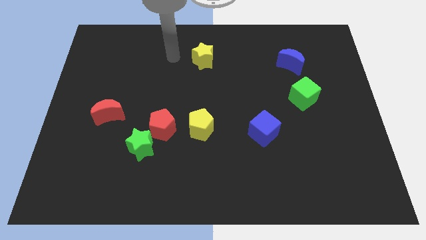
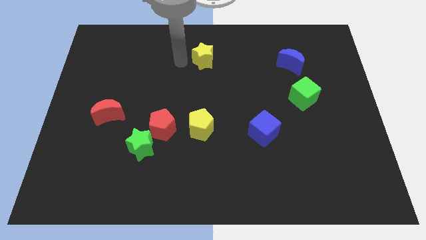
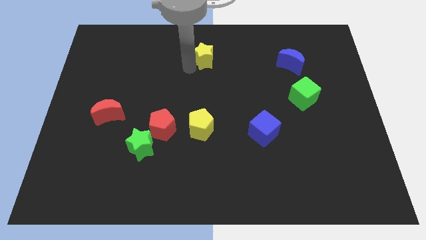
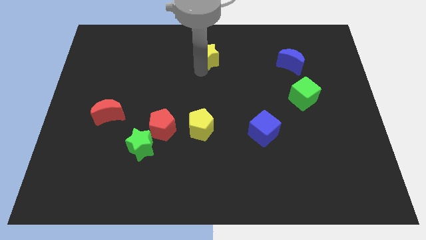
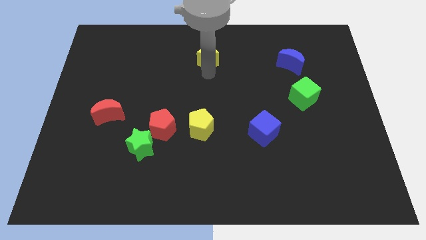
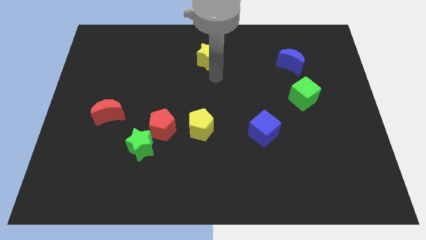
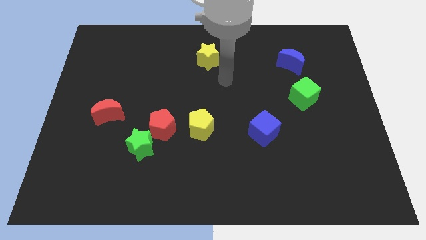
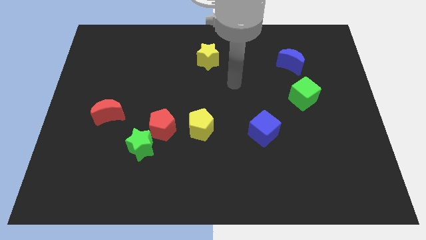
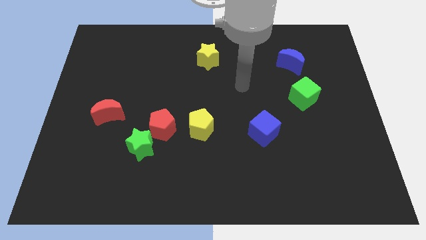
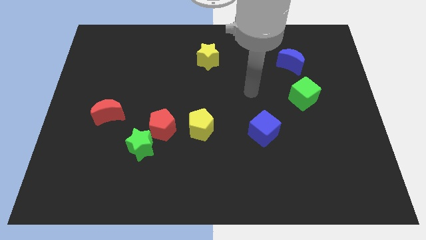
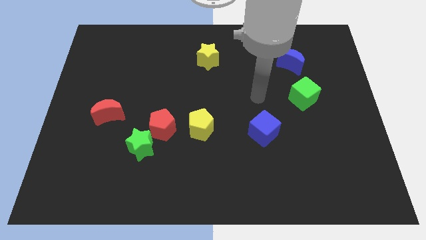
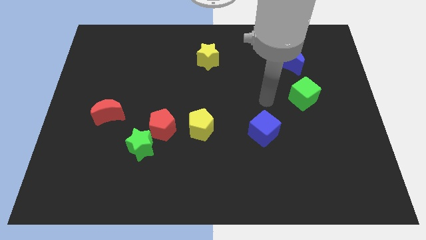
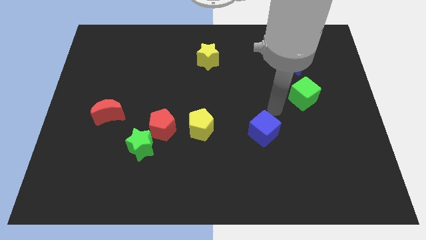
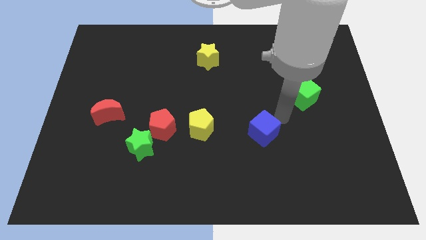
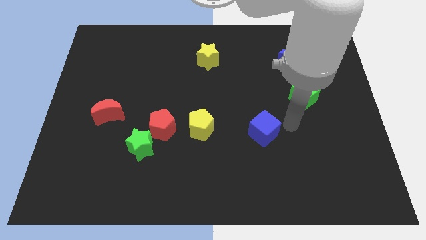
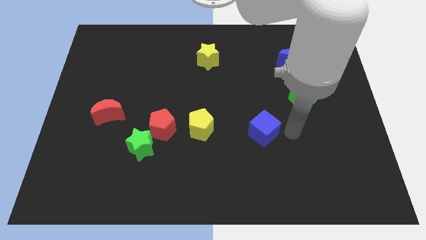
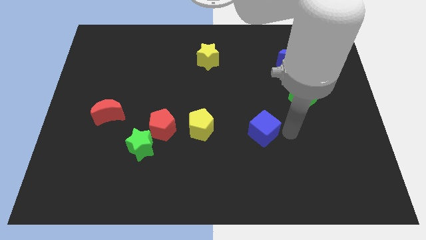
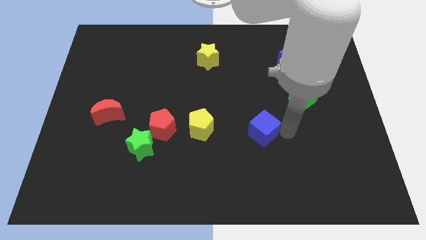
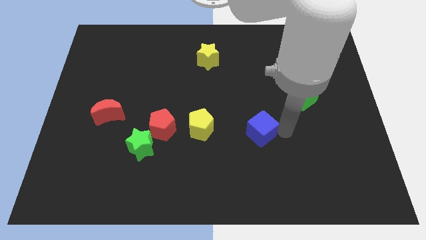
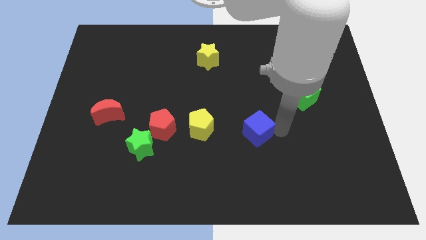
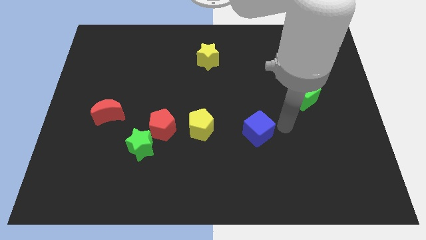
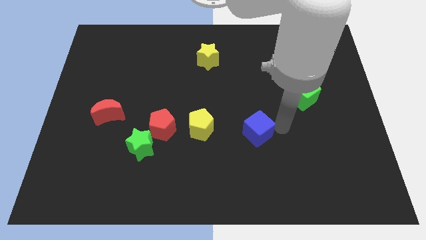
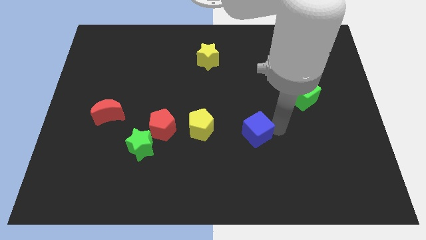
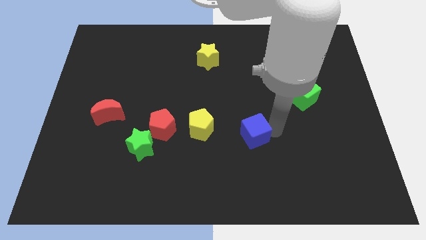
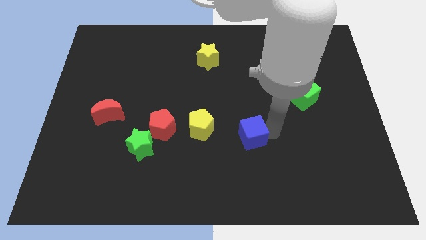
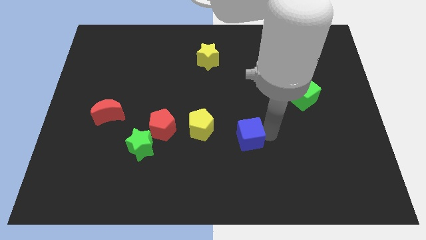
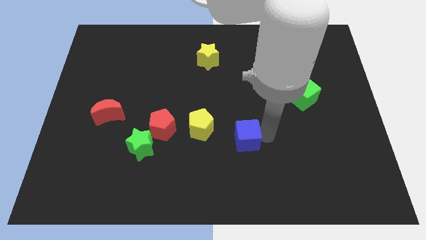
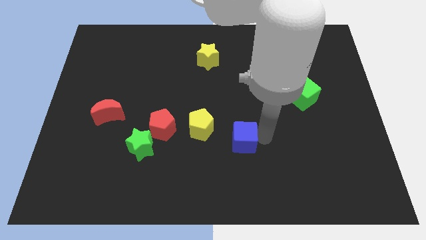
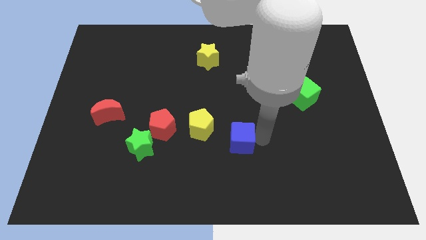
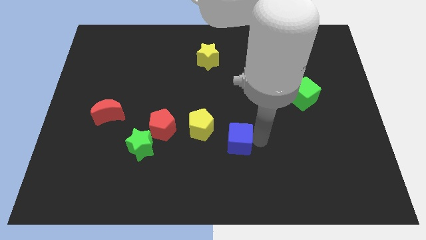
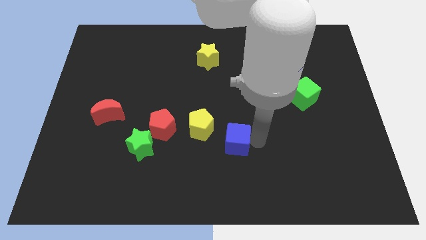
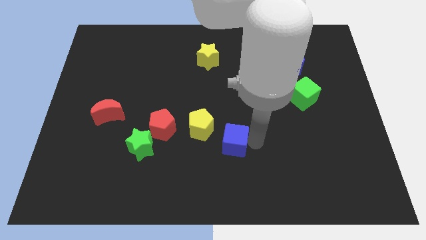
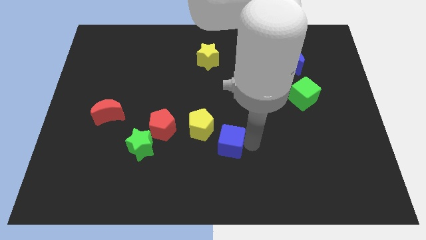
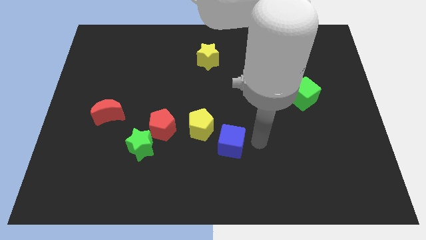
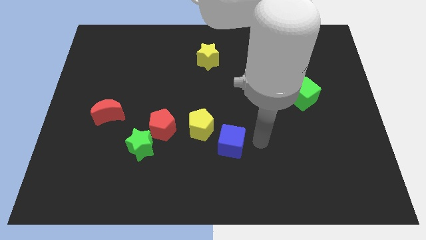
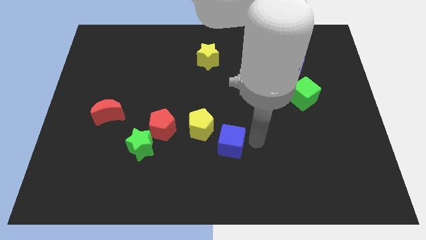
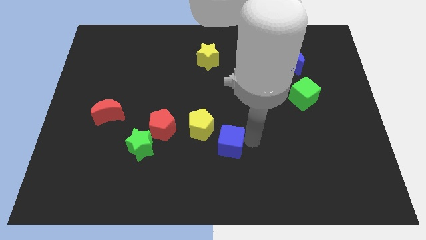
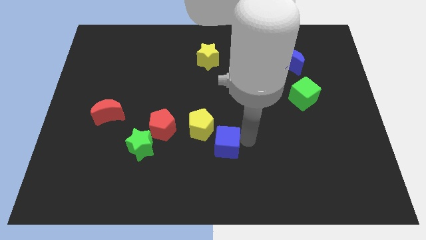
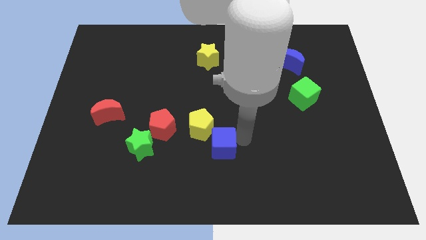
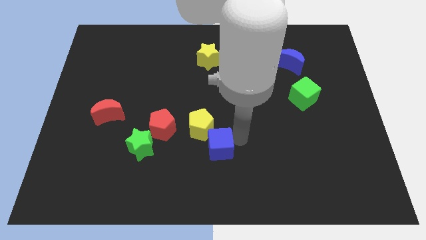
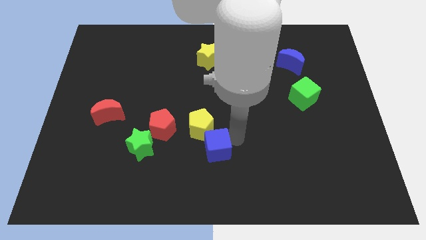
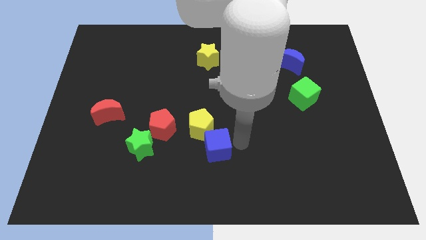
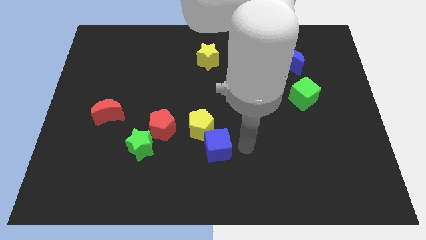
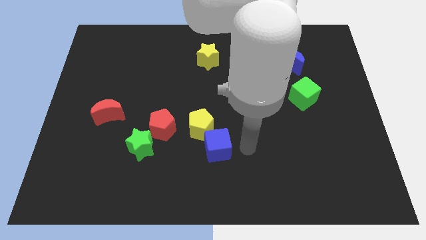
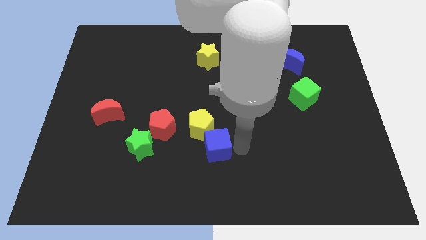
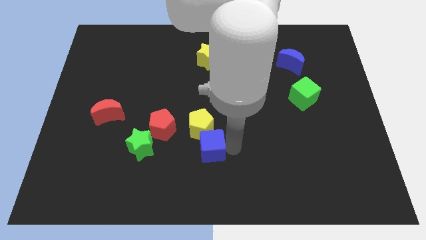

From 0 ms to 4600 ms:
slide the blue cube right of the green star

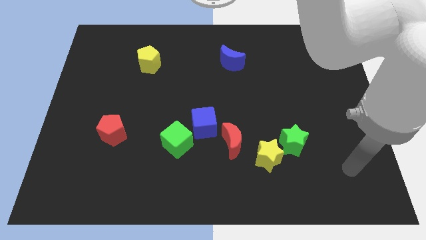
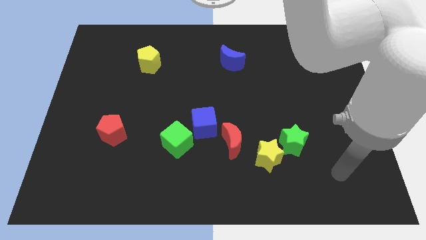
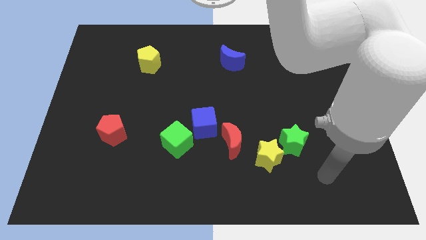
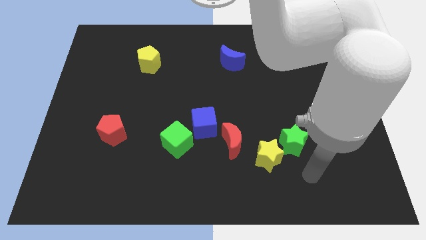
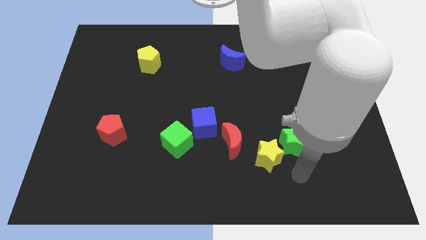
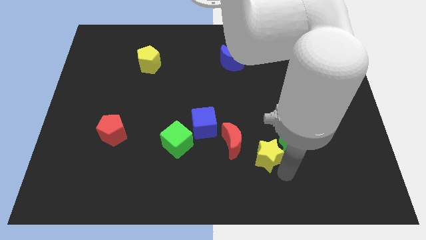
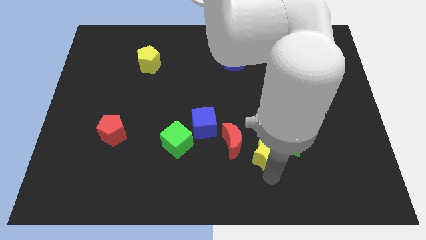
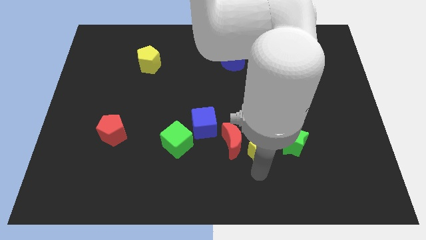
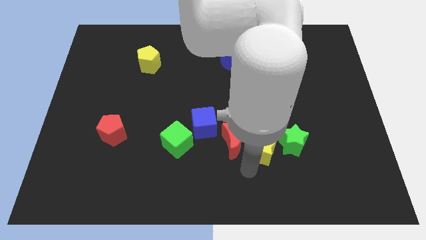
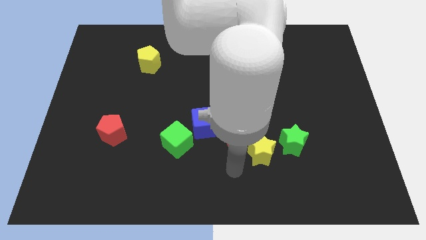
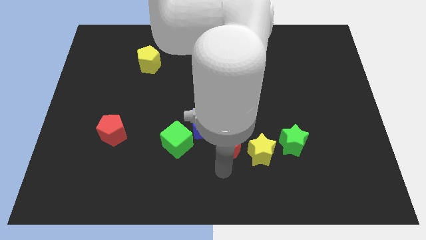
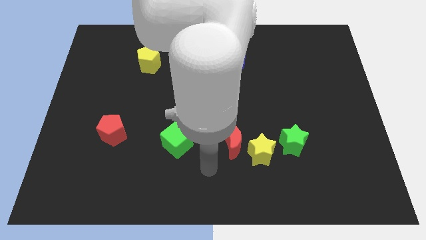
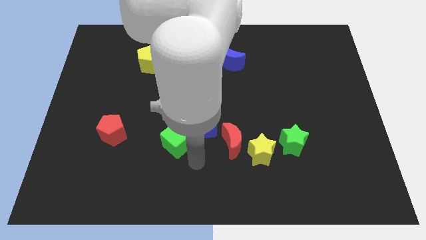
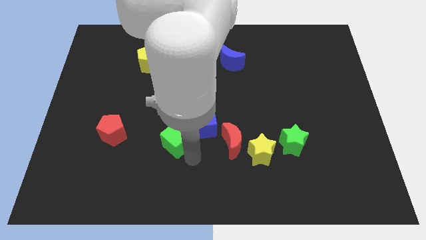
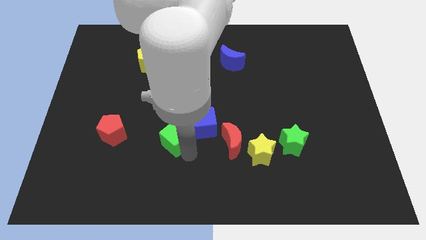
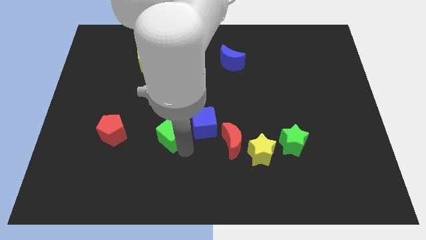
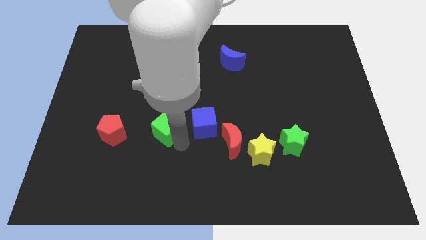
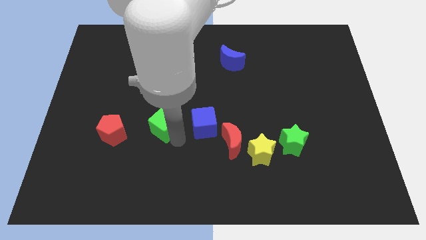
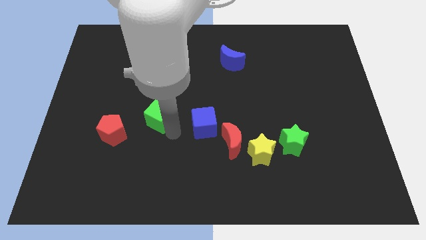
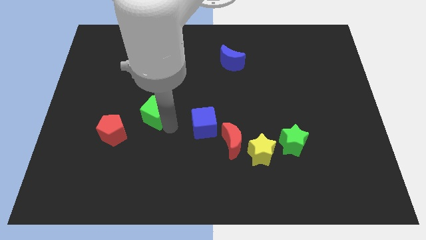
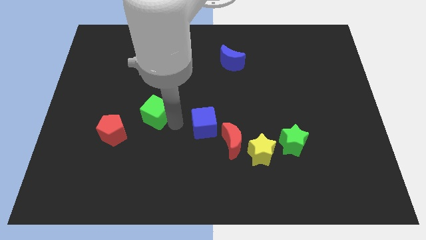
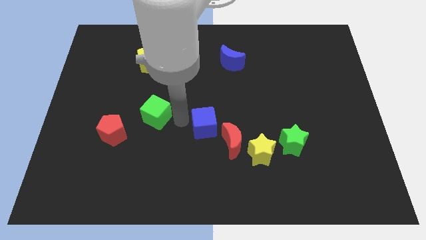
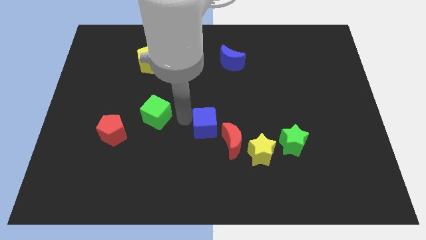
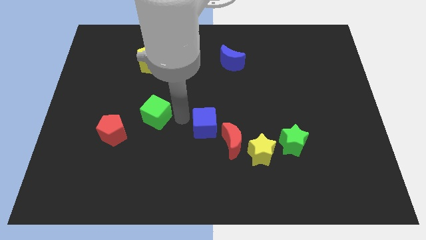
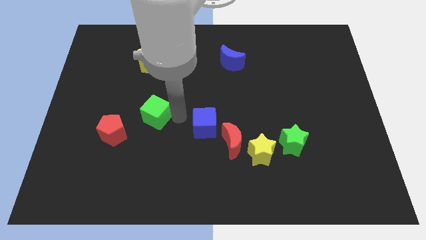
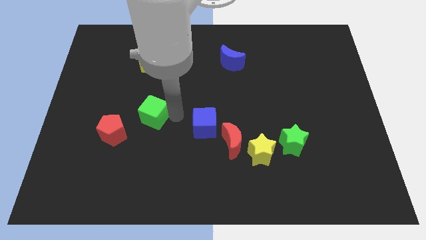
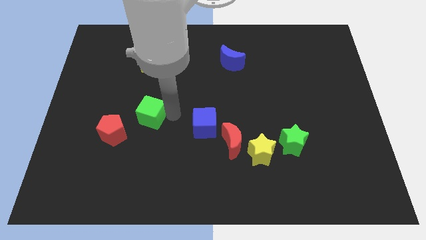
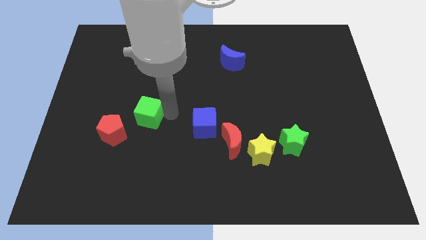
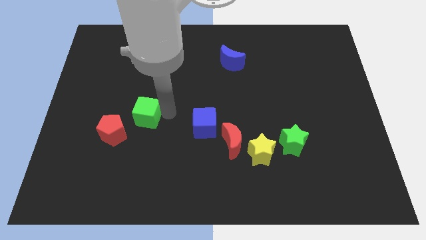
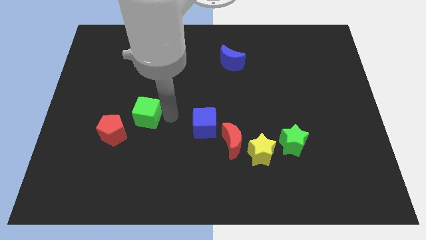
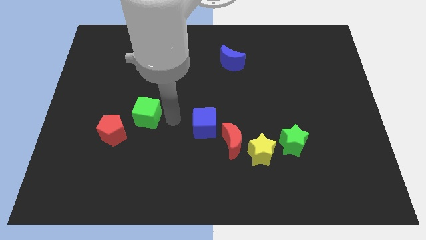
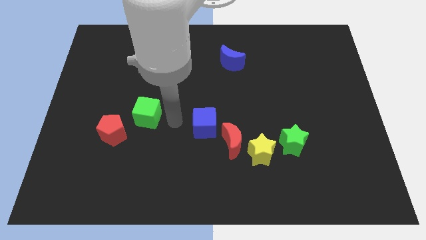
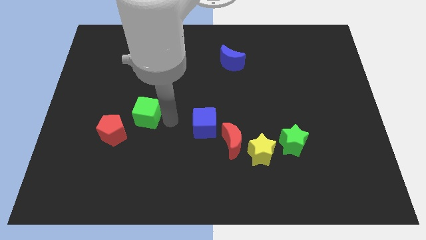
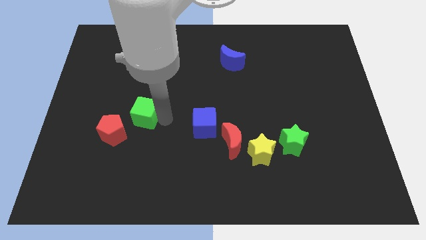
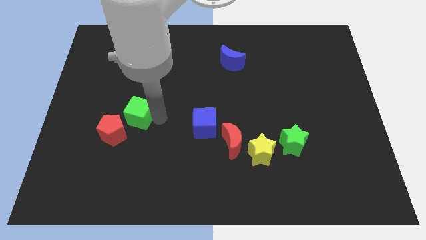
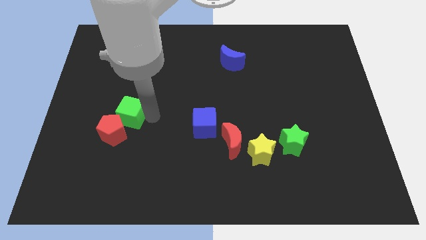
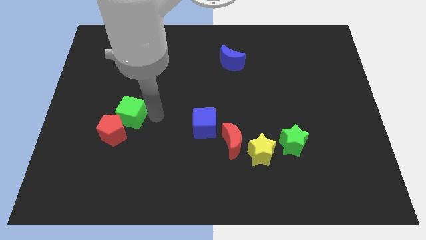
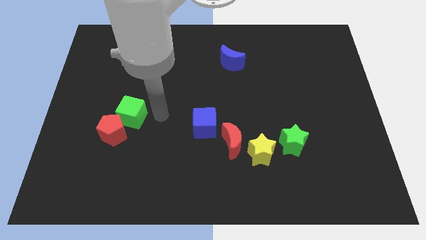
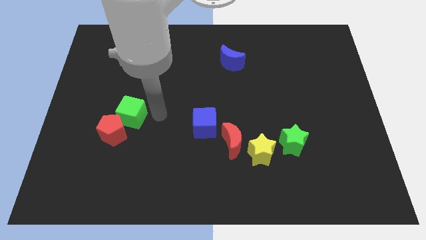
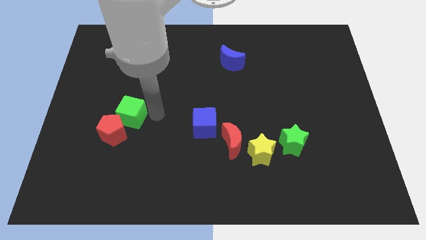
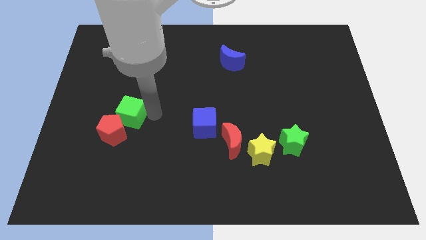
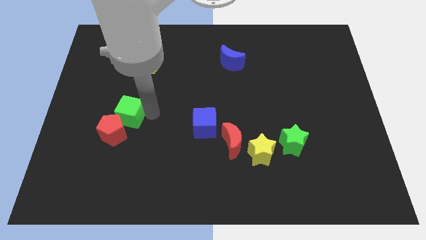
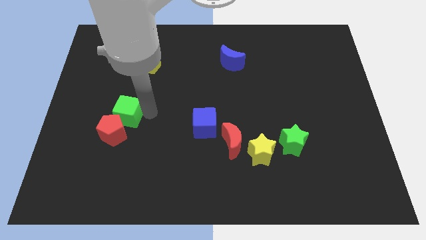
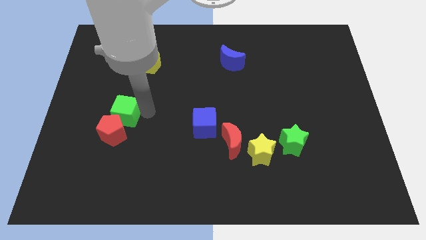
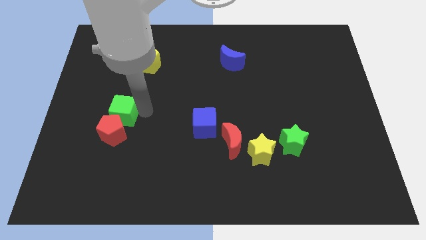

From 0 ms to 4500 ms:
put the green cube diagonally up and to the left of the red pentagon
